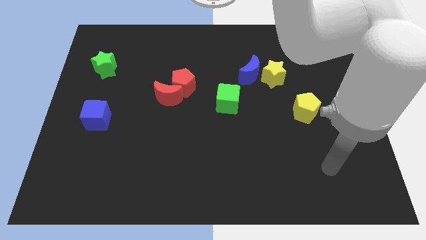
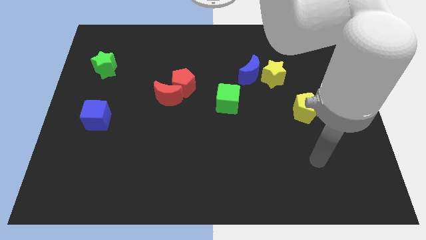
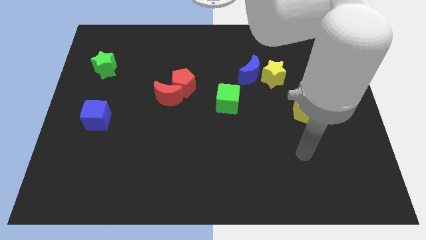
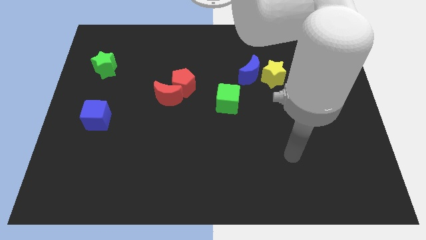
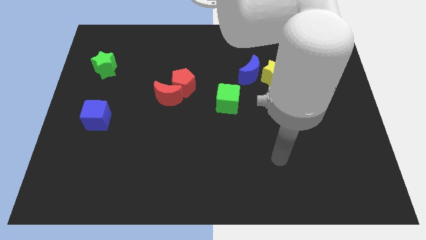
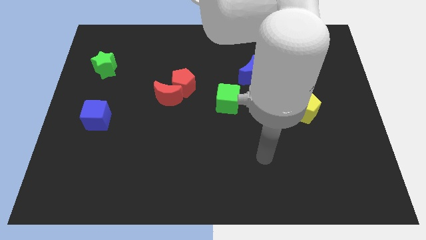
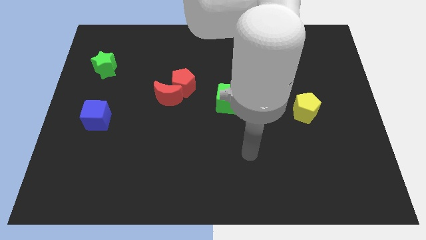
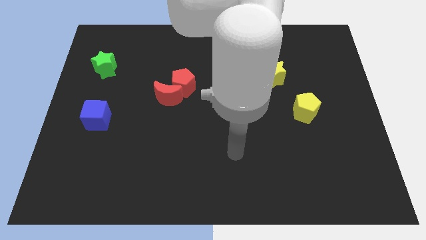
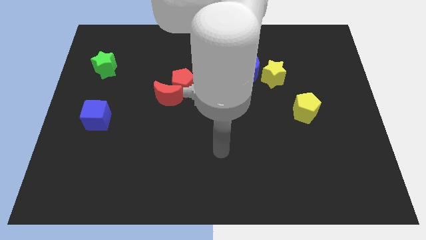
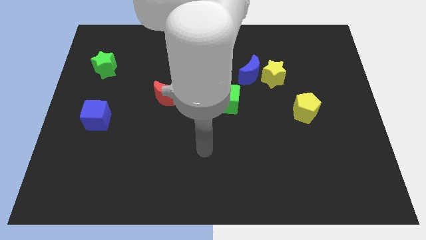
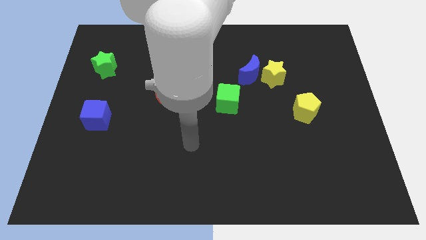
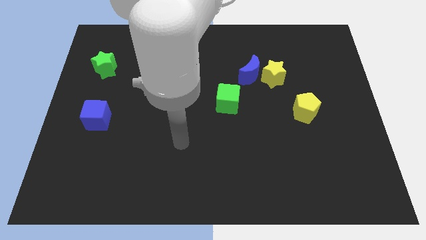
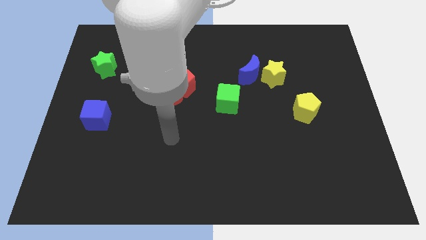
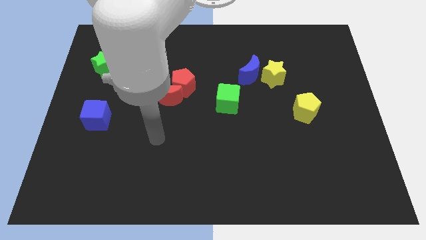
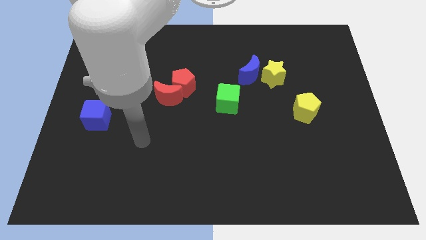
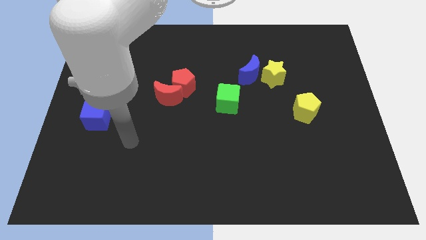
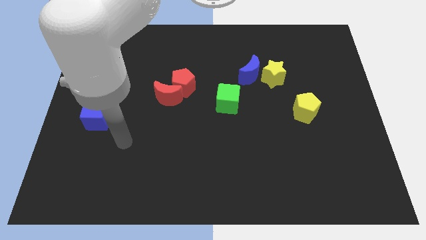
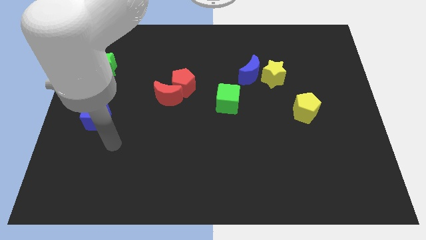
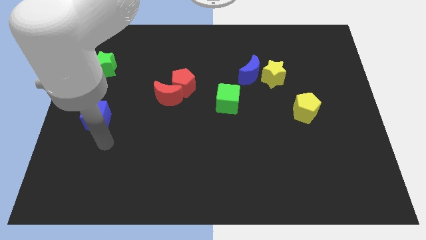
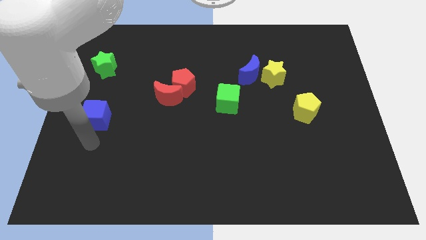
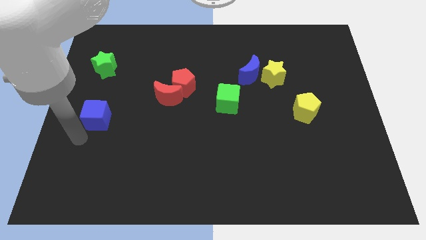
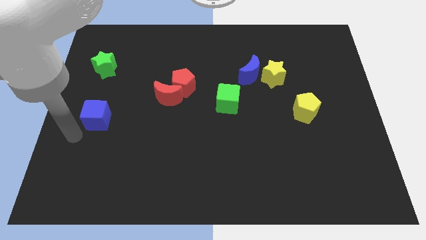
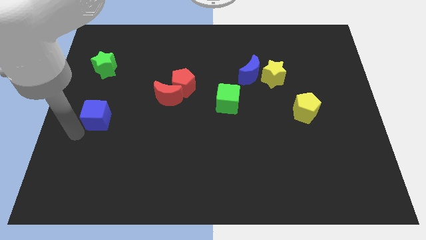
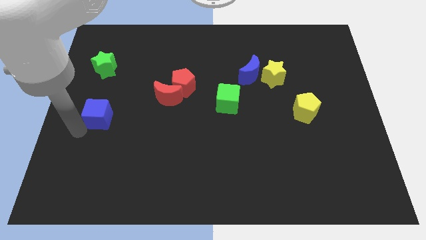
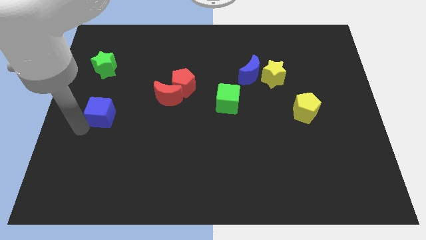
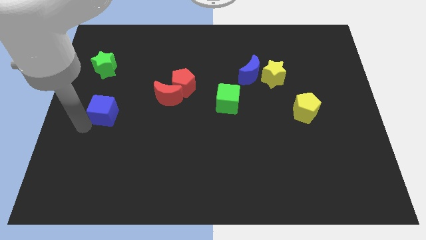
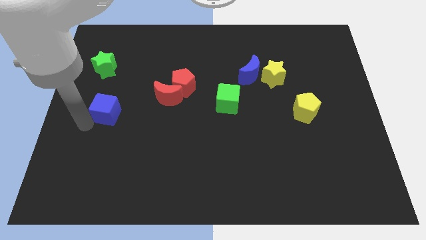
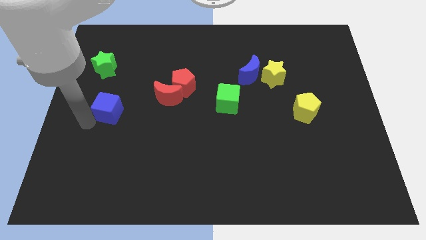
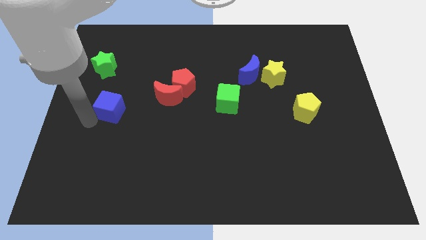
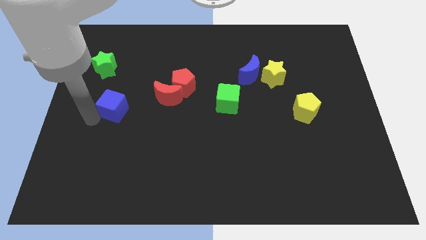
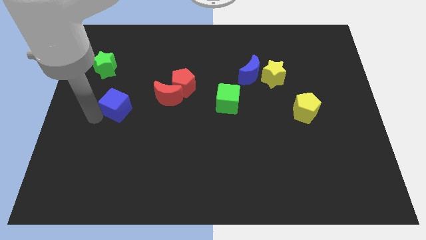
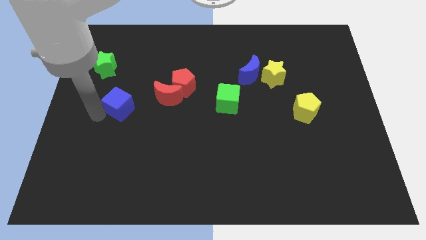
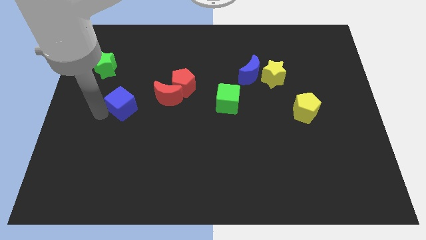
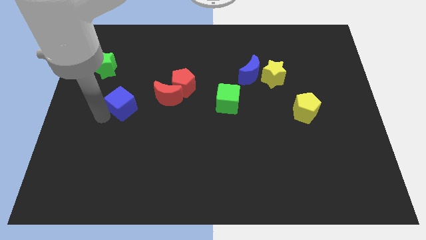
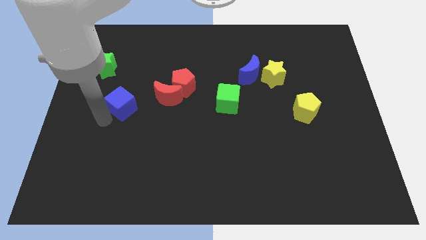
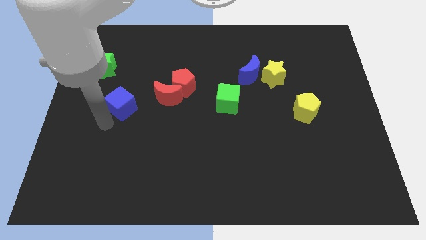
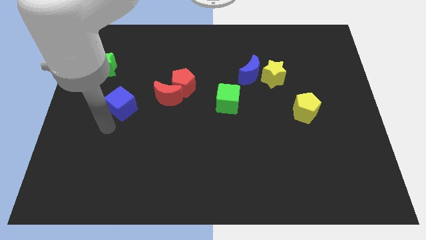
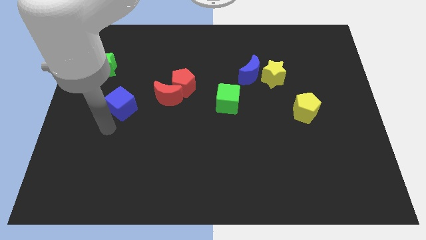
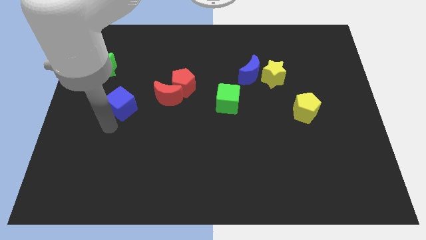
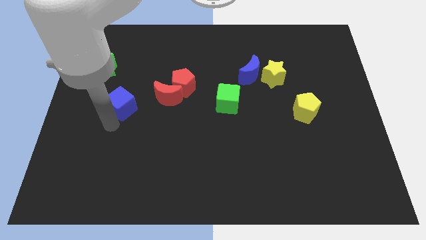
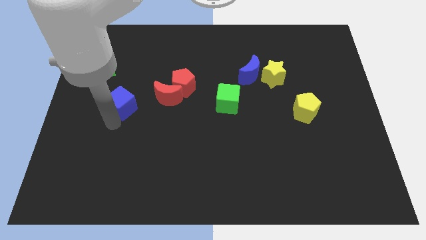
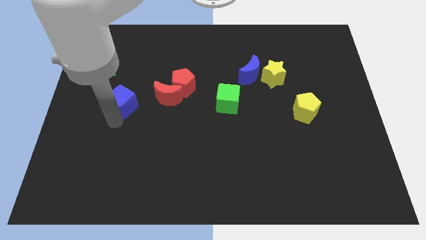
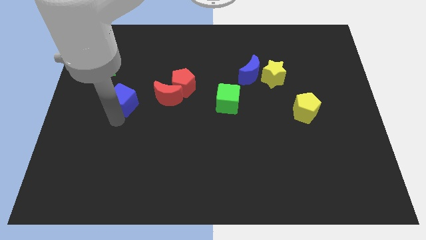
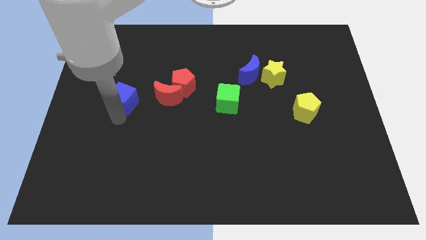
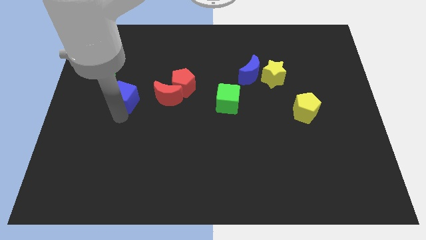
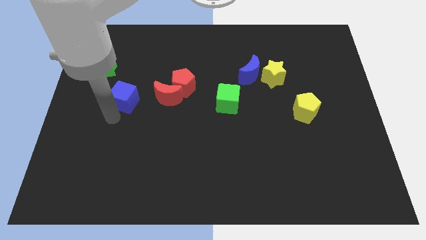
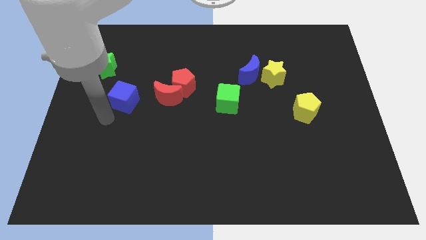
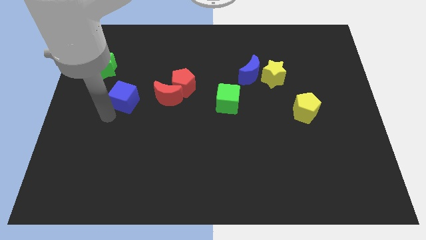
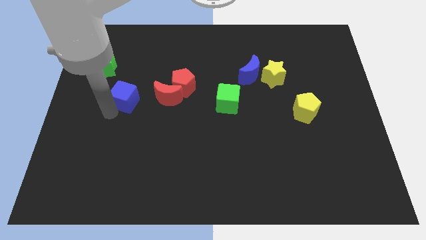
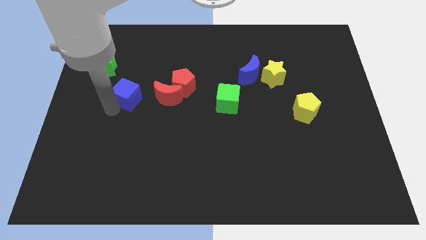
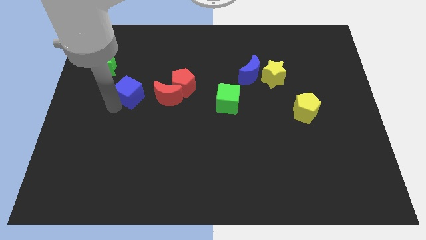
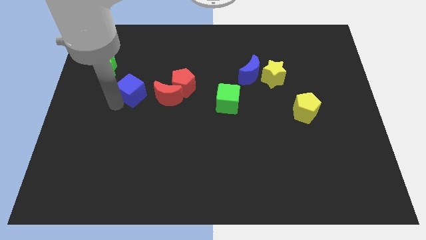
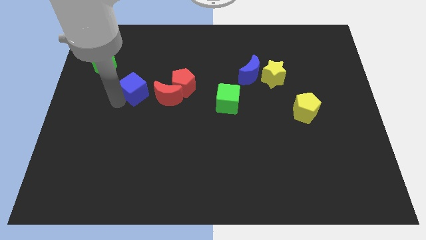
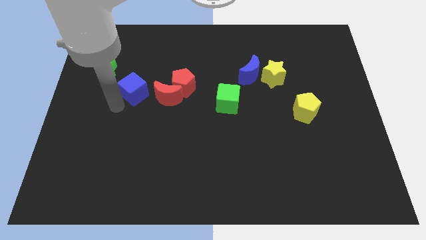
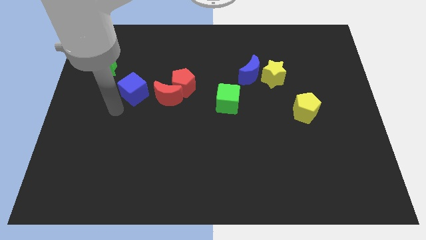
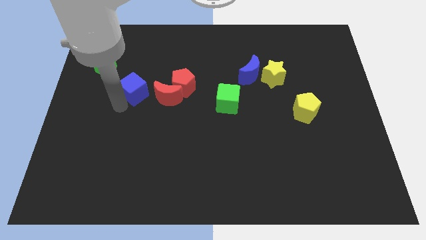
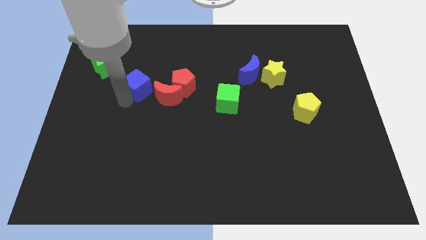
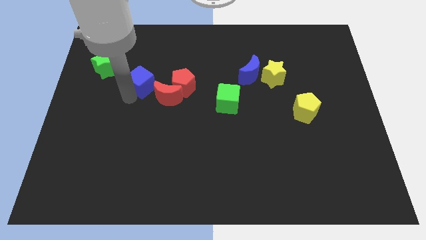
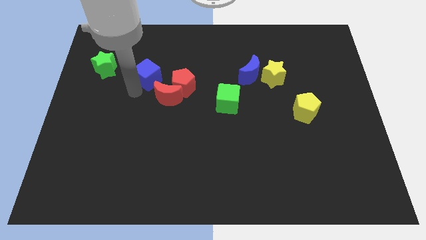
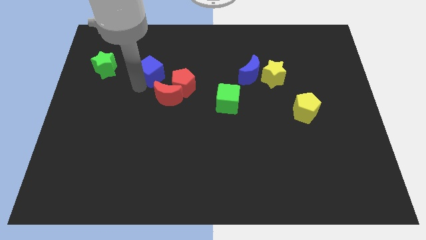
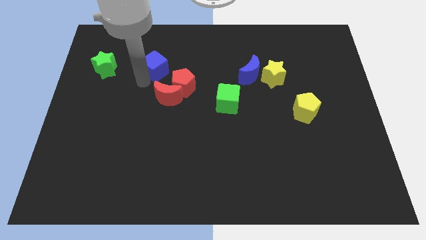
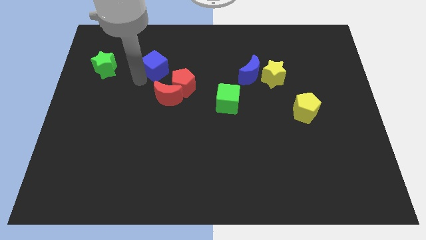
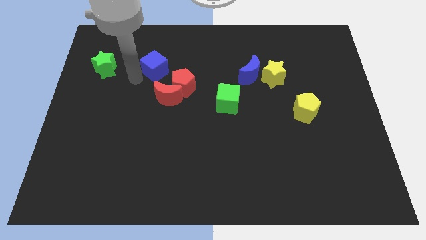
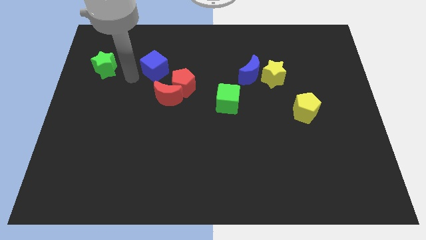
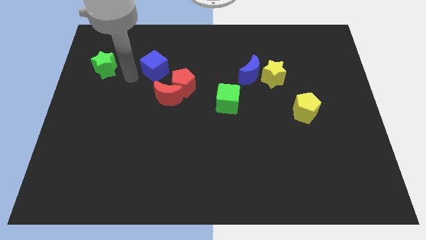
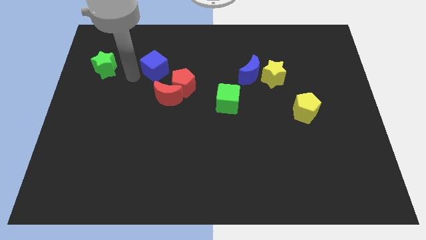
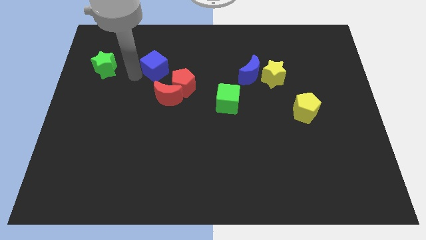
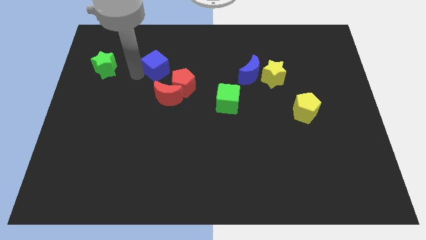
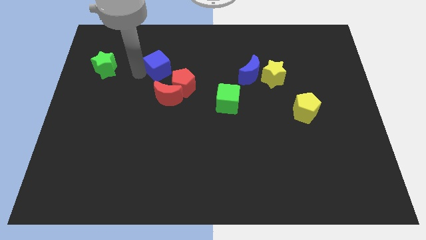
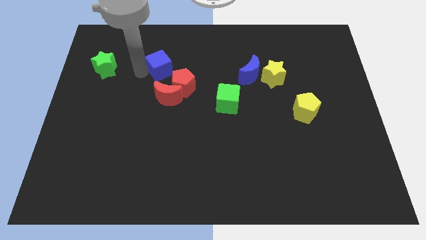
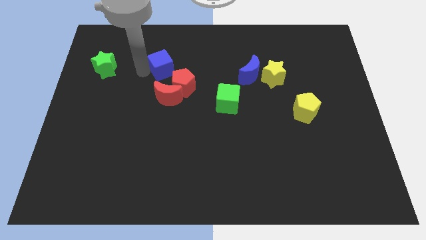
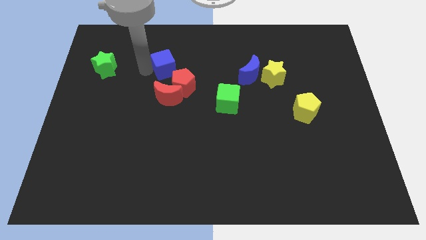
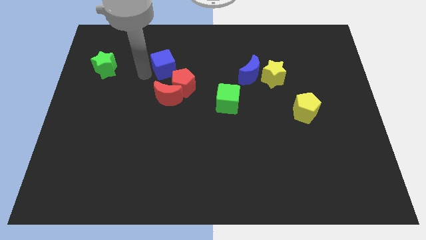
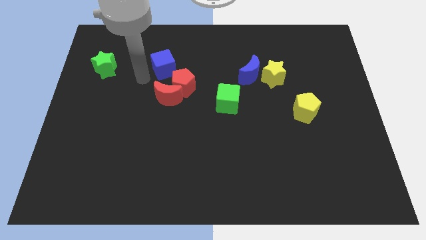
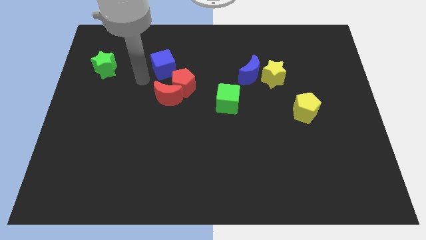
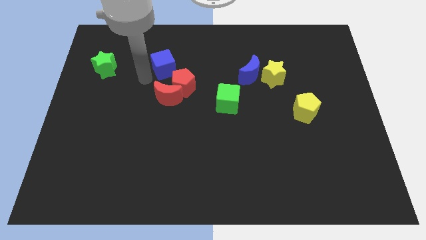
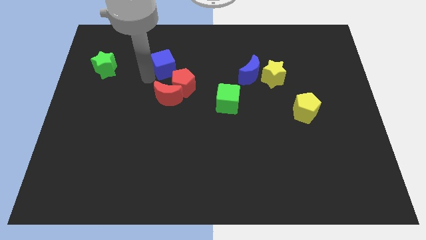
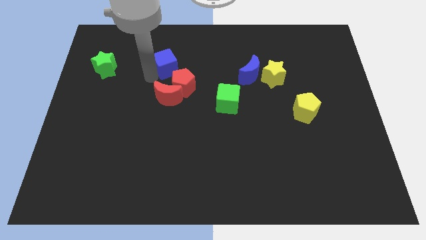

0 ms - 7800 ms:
move the blue cube to the top side of the red pentagon
